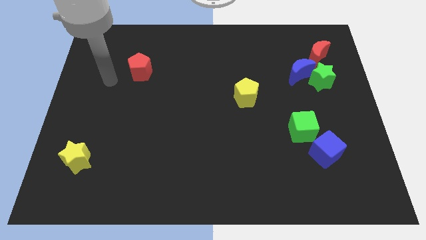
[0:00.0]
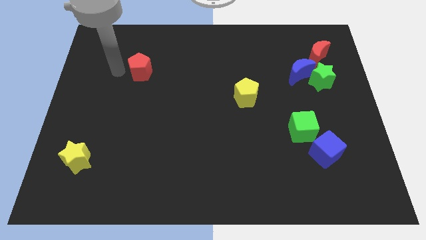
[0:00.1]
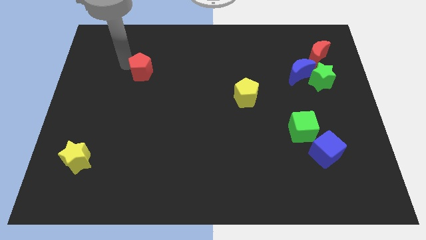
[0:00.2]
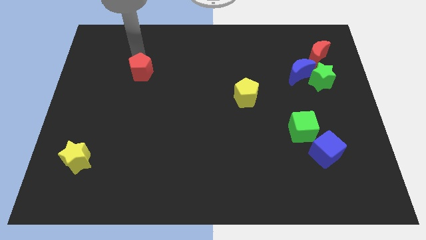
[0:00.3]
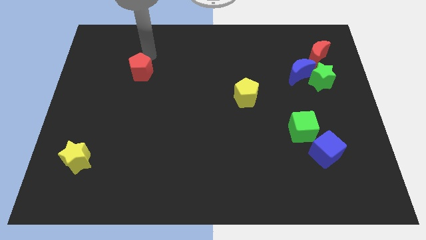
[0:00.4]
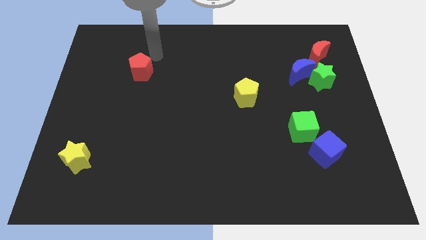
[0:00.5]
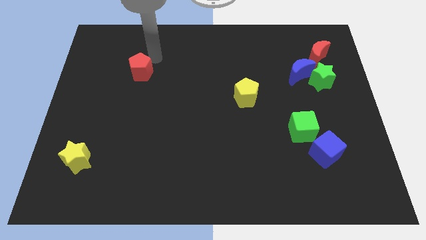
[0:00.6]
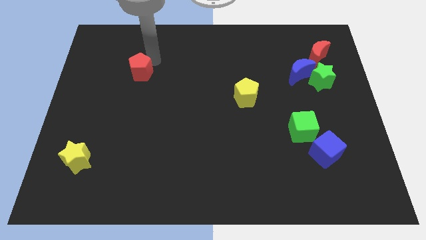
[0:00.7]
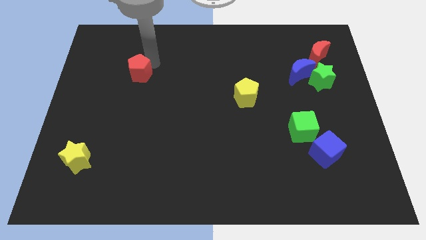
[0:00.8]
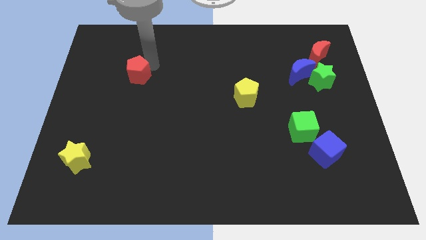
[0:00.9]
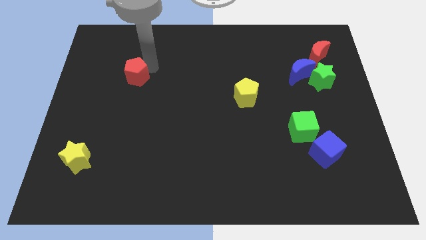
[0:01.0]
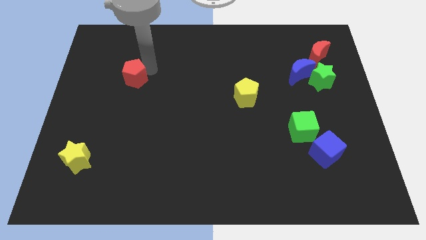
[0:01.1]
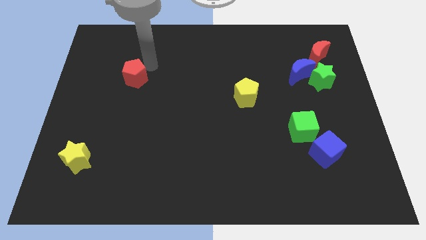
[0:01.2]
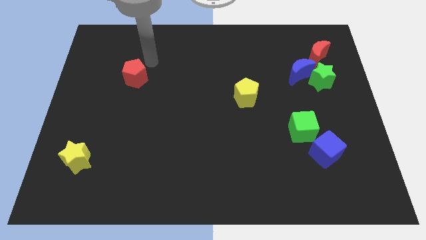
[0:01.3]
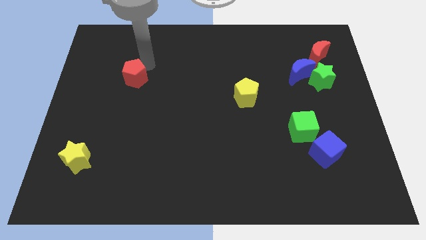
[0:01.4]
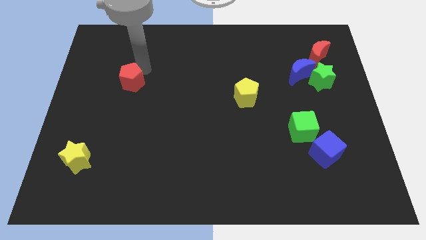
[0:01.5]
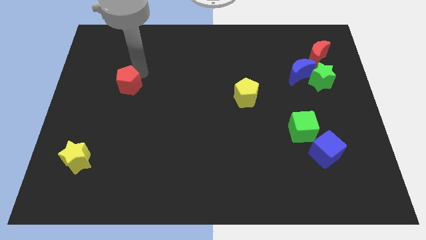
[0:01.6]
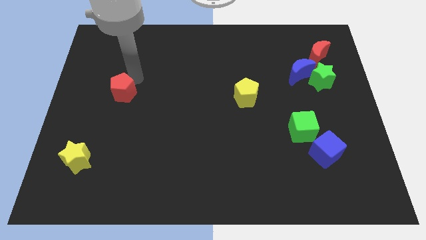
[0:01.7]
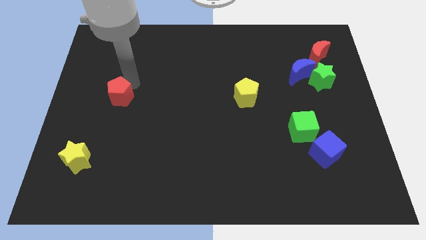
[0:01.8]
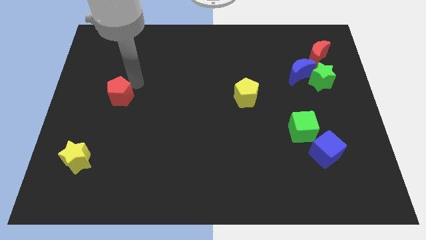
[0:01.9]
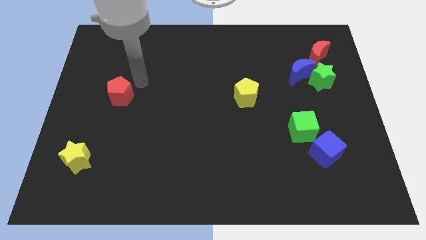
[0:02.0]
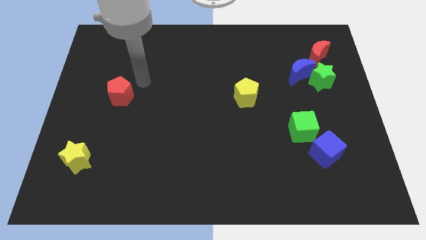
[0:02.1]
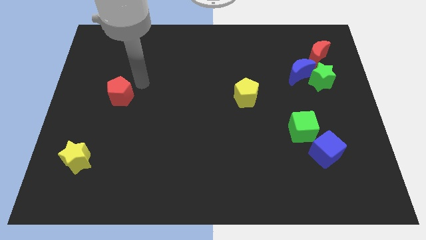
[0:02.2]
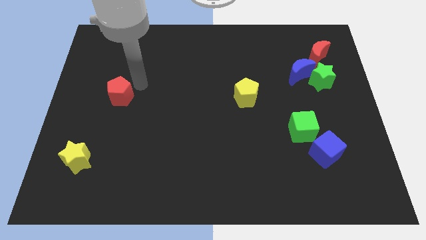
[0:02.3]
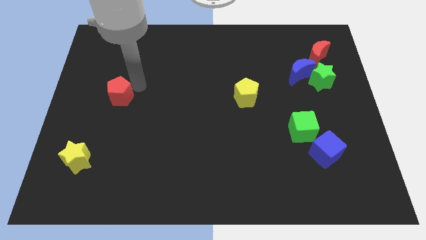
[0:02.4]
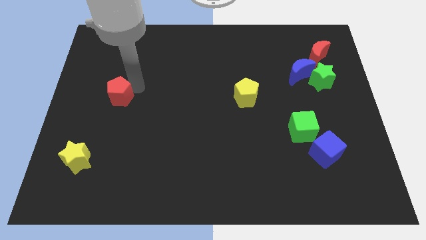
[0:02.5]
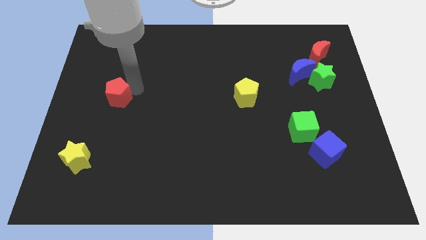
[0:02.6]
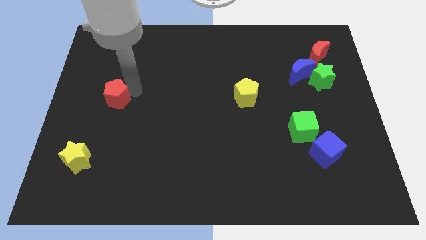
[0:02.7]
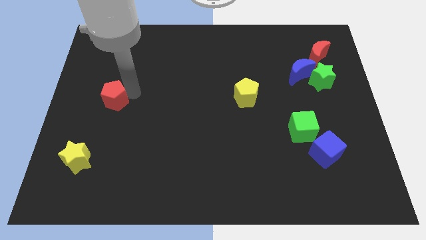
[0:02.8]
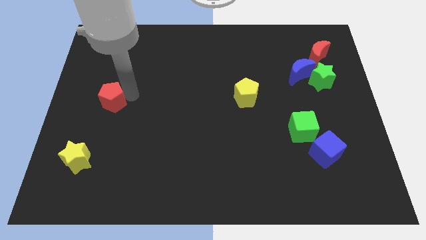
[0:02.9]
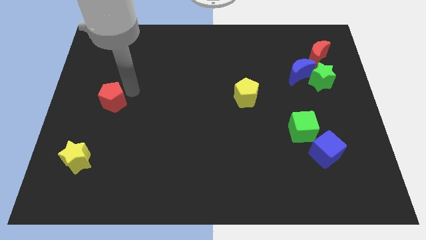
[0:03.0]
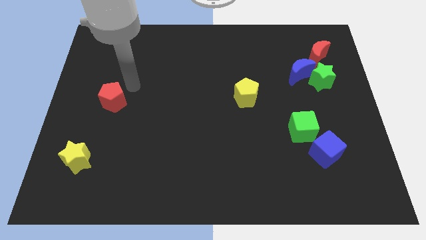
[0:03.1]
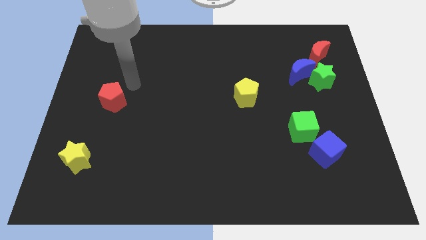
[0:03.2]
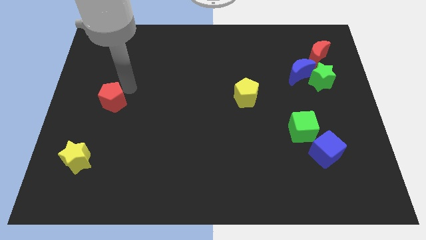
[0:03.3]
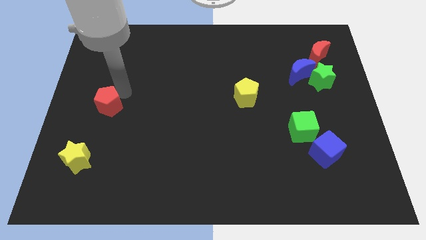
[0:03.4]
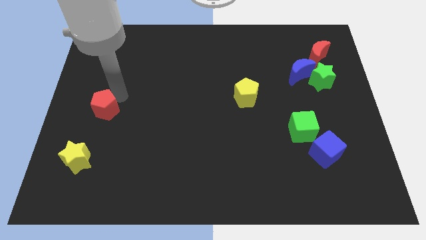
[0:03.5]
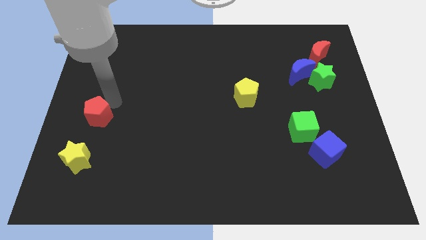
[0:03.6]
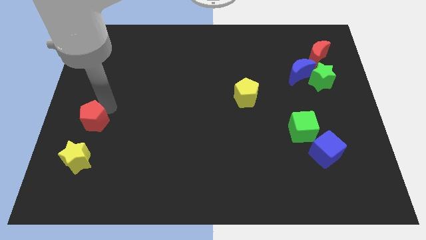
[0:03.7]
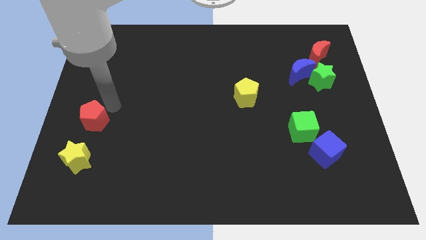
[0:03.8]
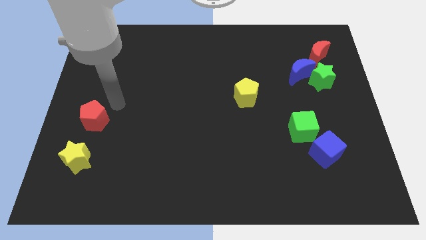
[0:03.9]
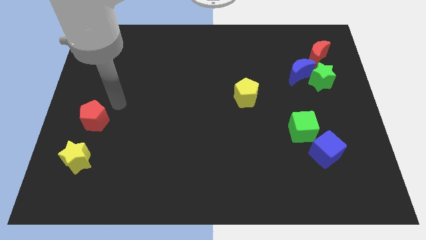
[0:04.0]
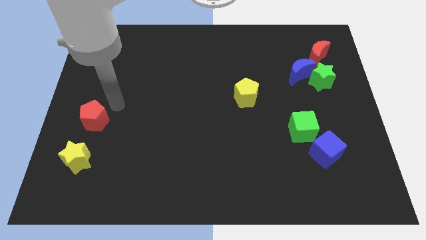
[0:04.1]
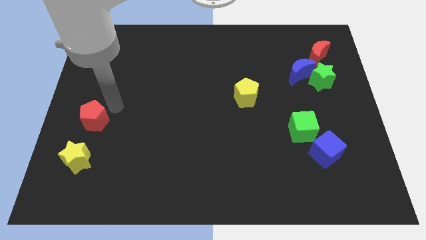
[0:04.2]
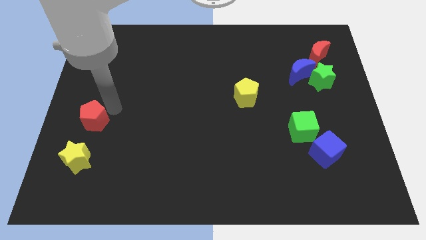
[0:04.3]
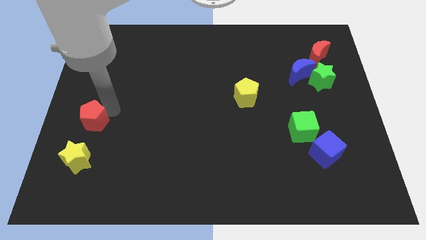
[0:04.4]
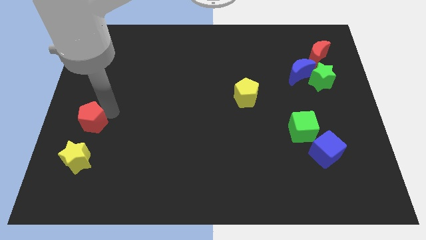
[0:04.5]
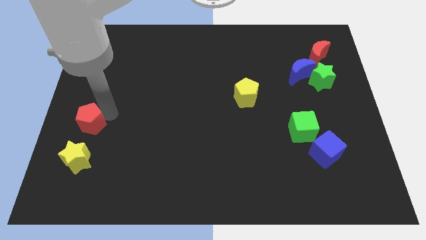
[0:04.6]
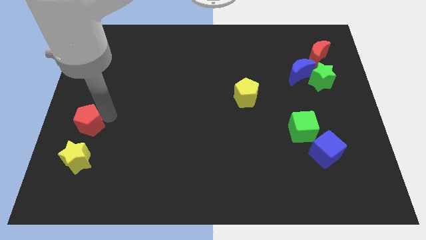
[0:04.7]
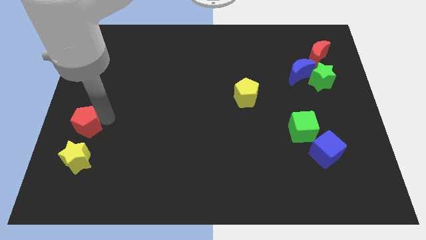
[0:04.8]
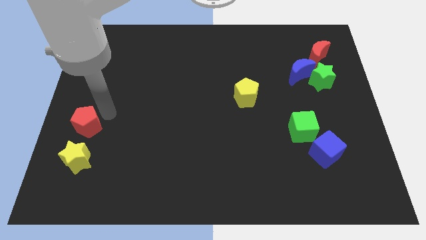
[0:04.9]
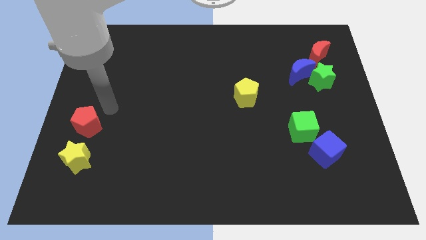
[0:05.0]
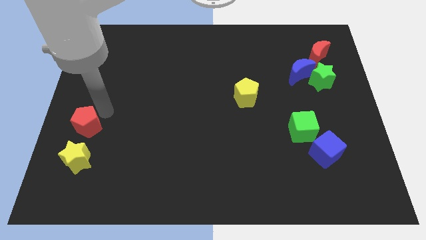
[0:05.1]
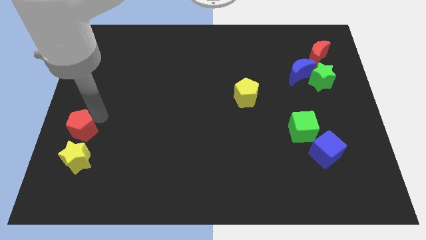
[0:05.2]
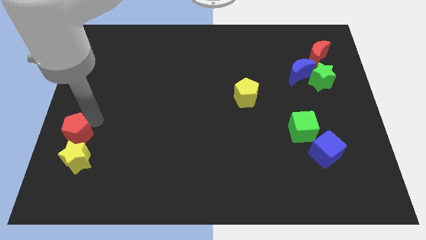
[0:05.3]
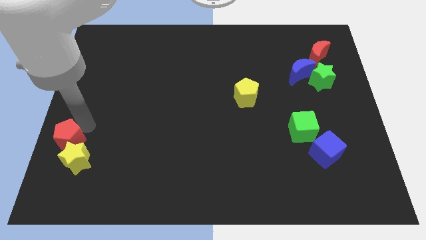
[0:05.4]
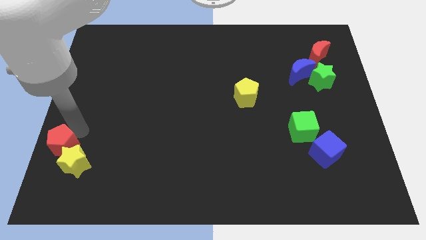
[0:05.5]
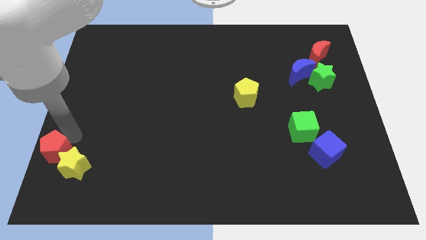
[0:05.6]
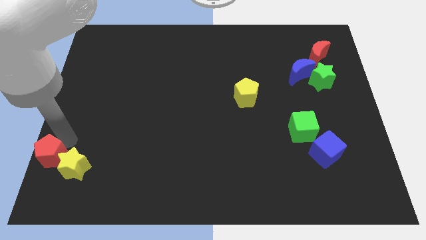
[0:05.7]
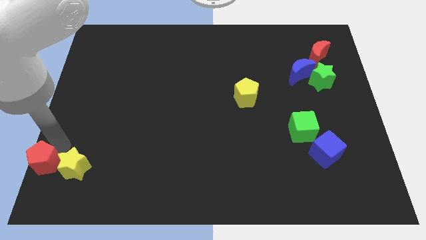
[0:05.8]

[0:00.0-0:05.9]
push the red pentagon to the bottom left of the board

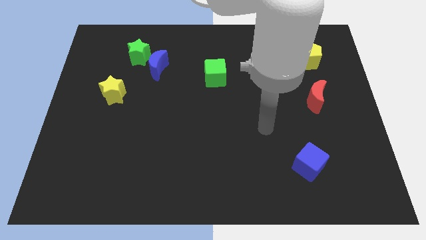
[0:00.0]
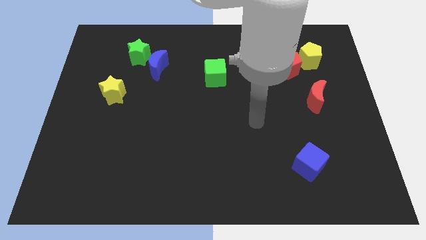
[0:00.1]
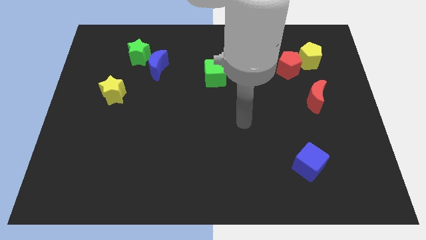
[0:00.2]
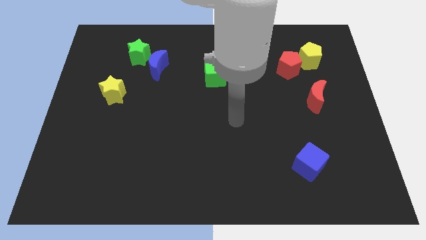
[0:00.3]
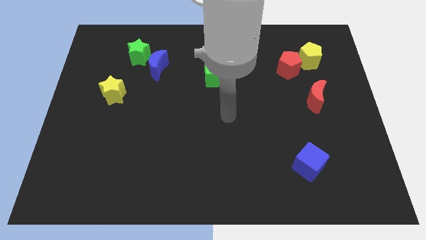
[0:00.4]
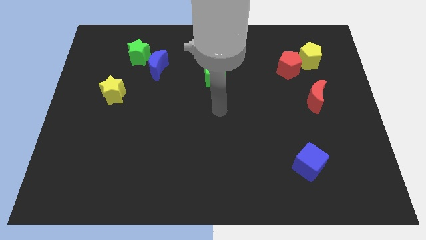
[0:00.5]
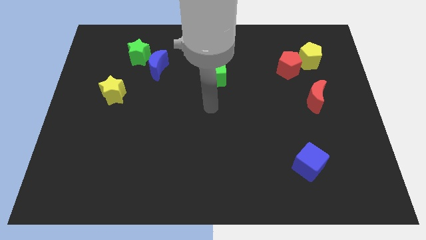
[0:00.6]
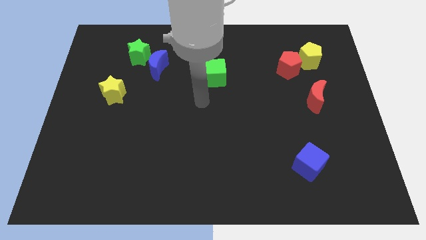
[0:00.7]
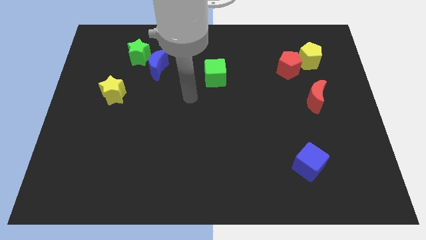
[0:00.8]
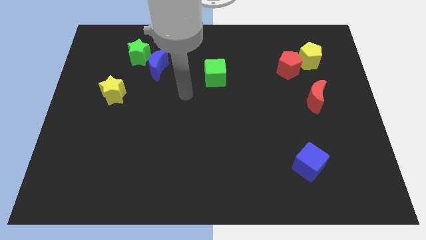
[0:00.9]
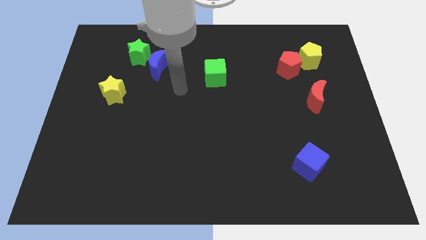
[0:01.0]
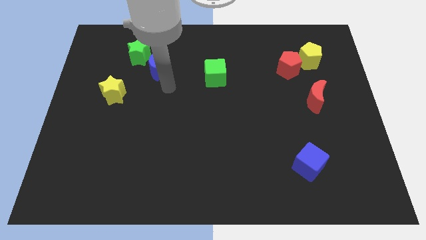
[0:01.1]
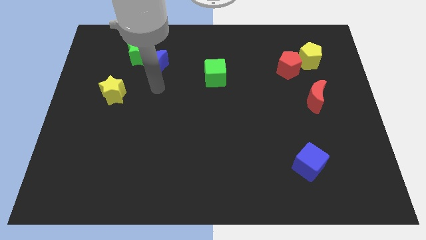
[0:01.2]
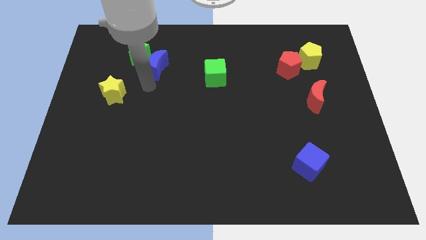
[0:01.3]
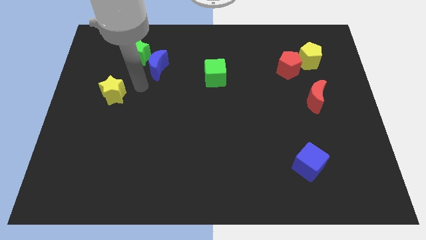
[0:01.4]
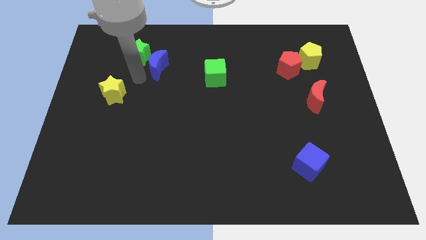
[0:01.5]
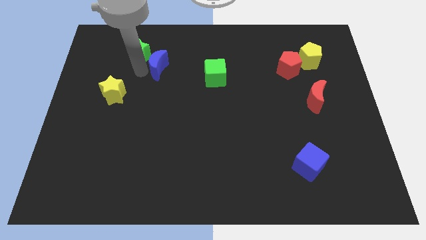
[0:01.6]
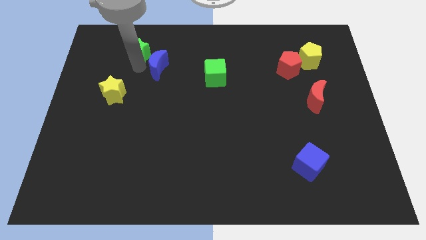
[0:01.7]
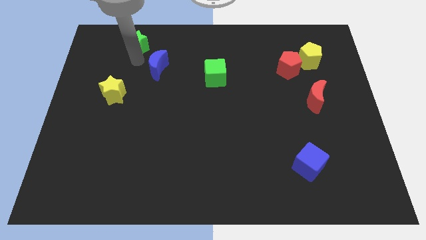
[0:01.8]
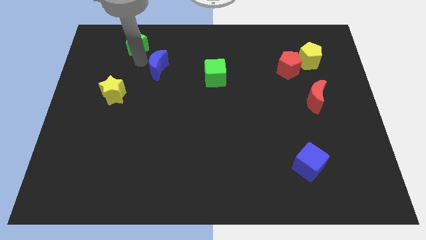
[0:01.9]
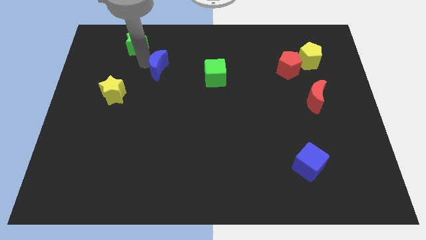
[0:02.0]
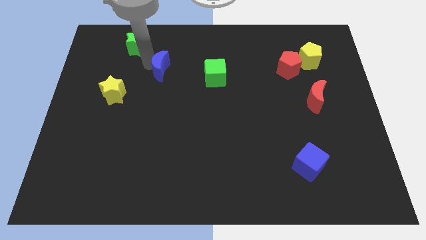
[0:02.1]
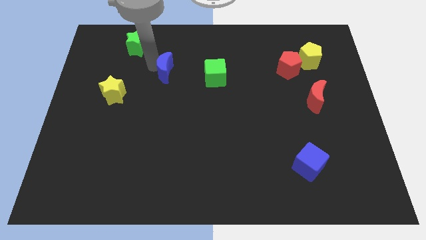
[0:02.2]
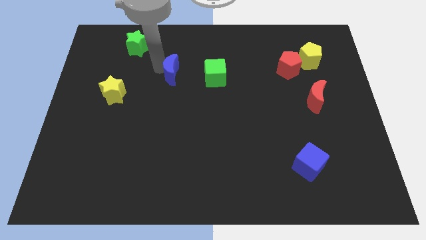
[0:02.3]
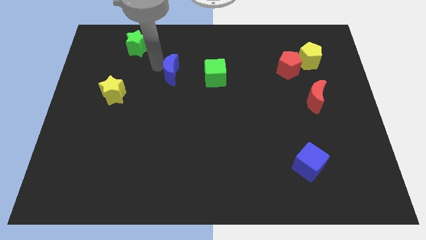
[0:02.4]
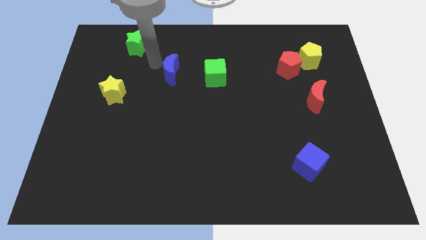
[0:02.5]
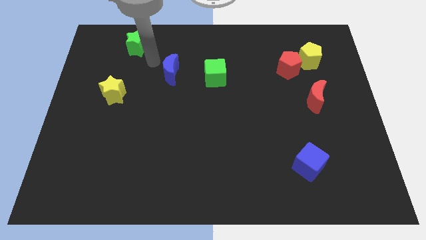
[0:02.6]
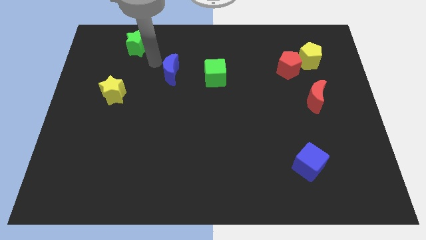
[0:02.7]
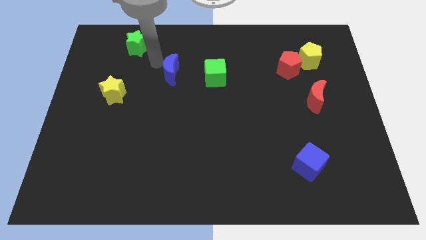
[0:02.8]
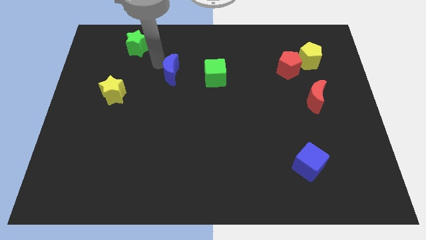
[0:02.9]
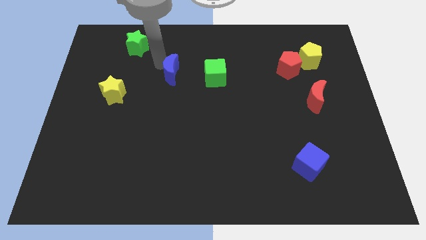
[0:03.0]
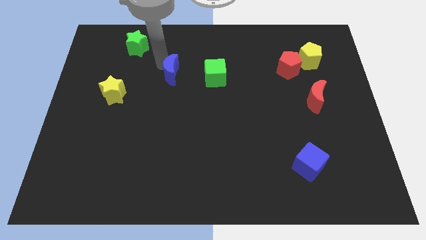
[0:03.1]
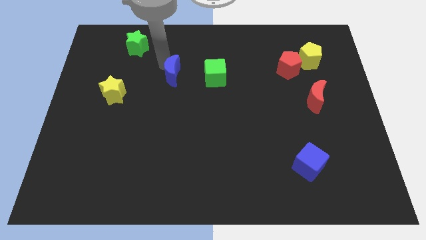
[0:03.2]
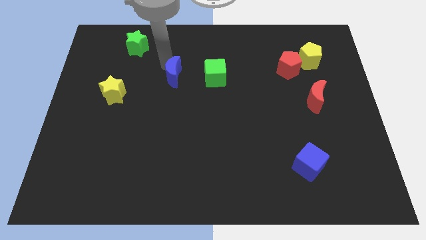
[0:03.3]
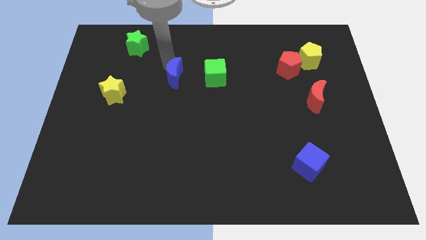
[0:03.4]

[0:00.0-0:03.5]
slide the blue moon to the center of the board
